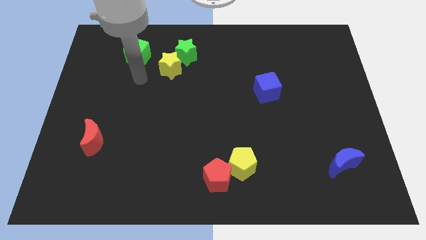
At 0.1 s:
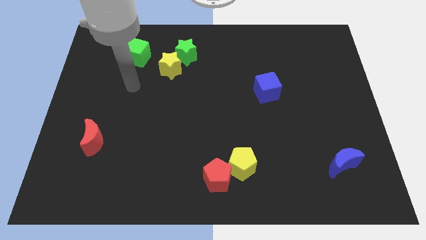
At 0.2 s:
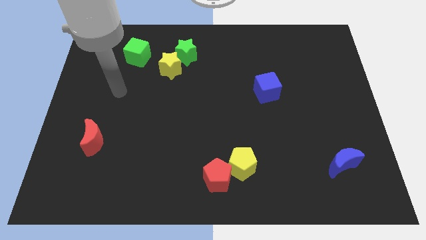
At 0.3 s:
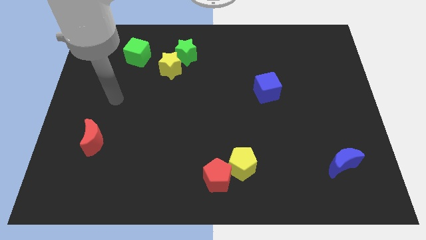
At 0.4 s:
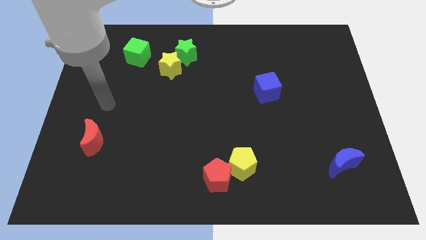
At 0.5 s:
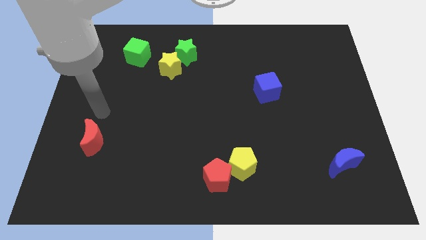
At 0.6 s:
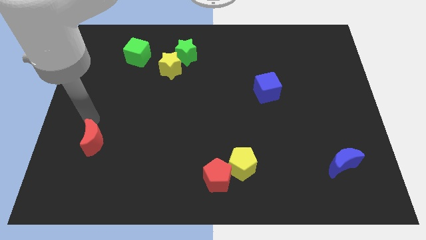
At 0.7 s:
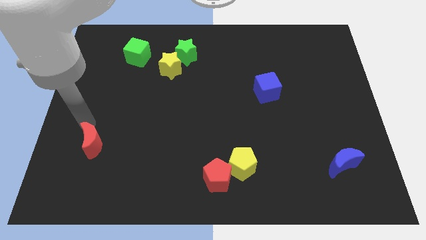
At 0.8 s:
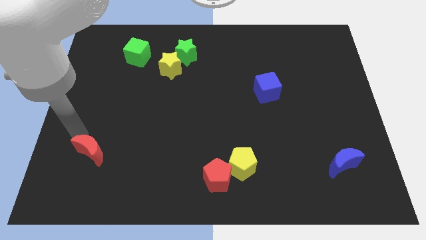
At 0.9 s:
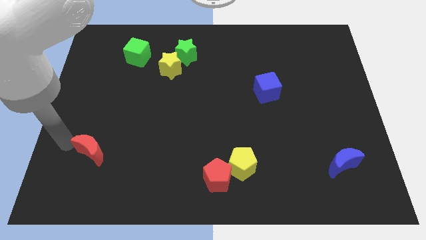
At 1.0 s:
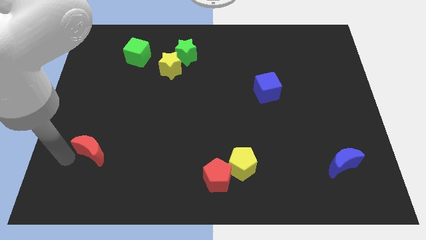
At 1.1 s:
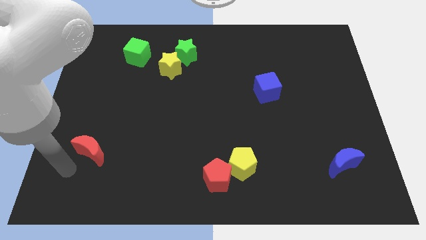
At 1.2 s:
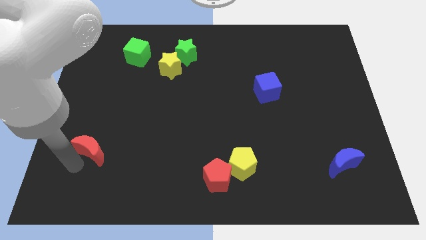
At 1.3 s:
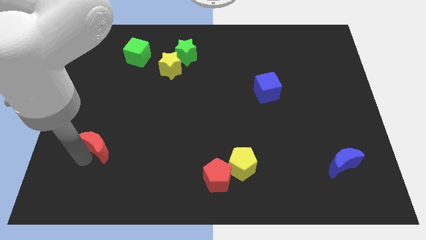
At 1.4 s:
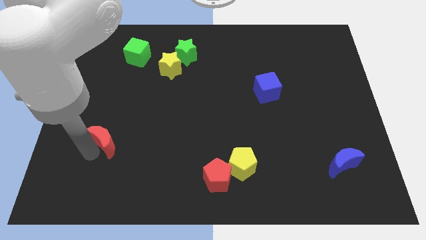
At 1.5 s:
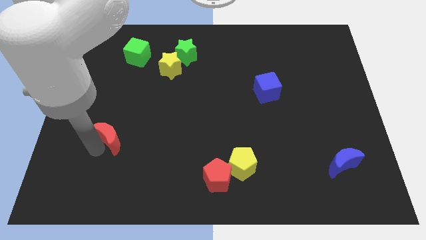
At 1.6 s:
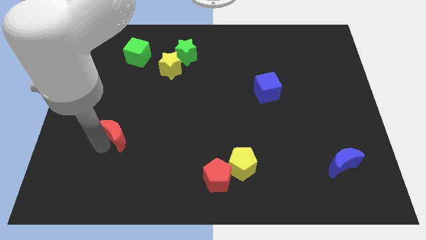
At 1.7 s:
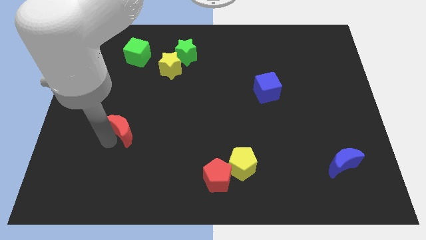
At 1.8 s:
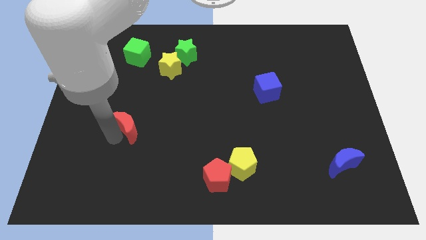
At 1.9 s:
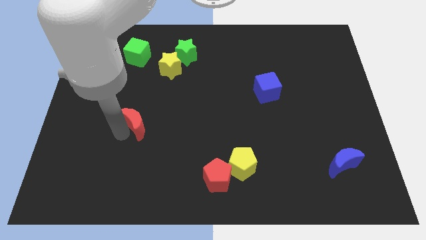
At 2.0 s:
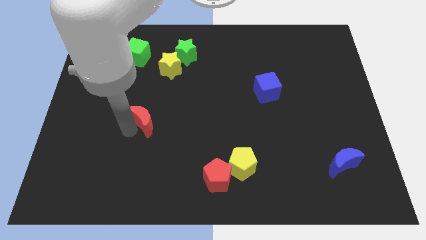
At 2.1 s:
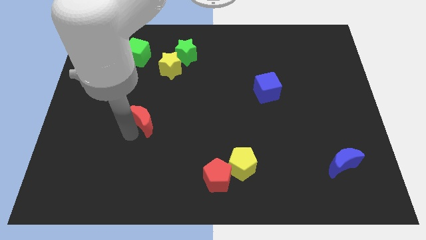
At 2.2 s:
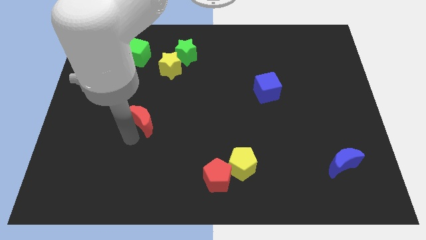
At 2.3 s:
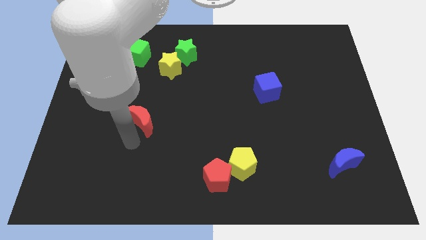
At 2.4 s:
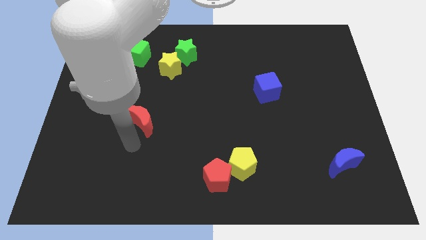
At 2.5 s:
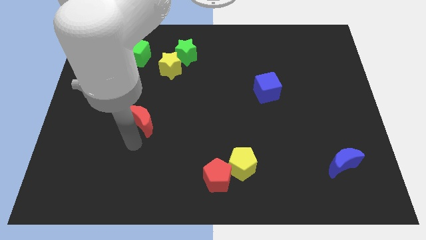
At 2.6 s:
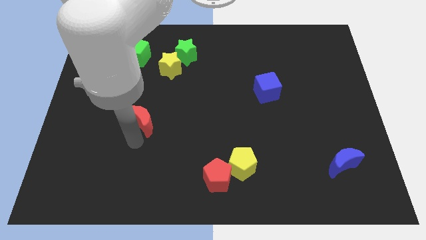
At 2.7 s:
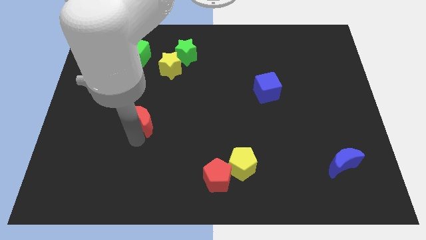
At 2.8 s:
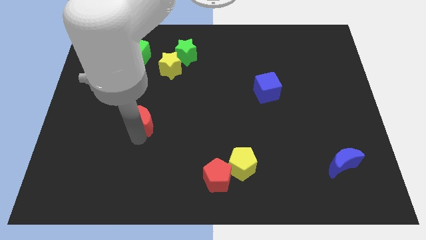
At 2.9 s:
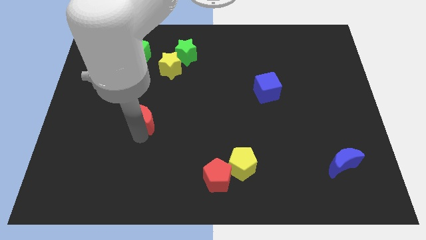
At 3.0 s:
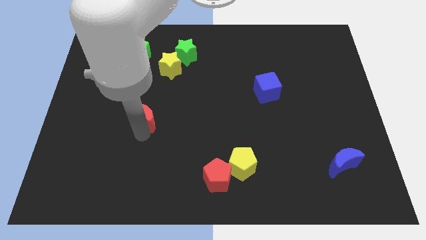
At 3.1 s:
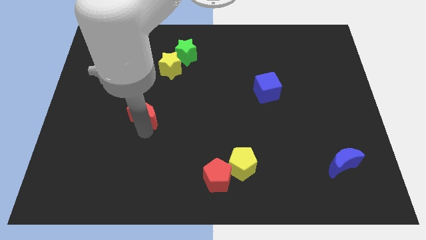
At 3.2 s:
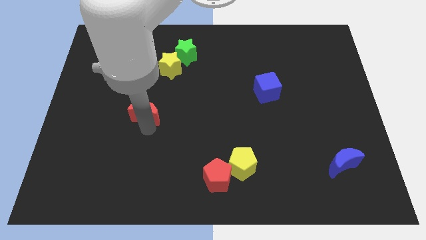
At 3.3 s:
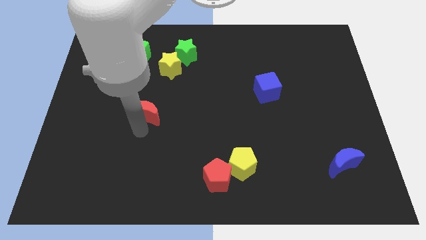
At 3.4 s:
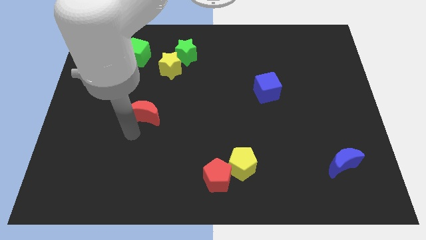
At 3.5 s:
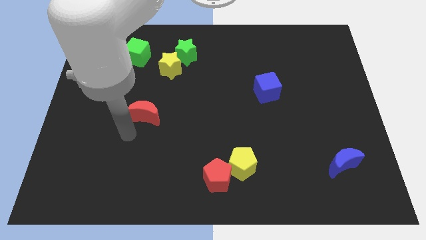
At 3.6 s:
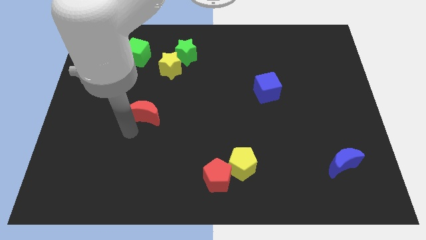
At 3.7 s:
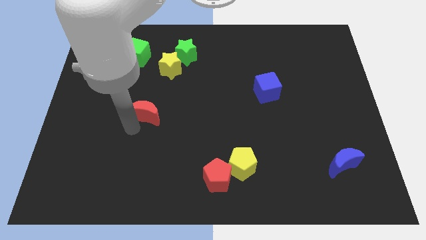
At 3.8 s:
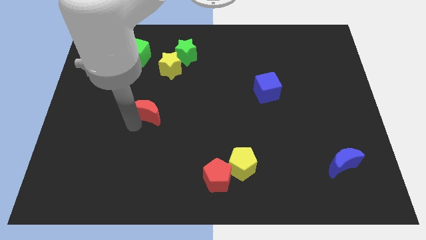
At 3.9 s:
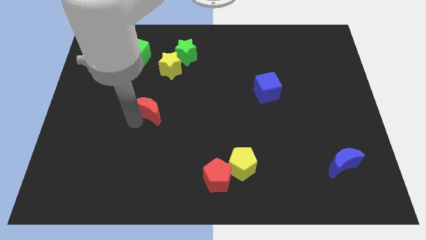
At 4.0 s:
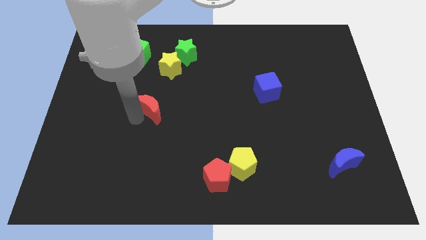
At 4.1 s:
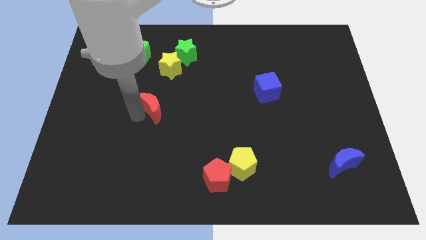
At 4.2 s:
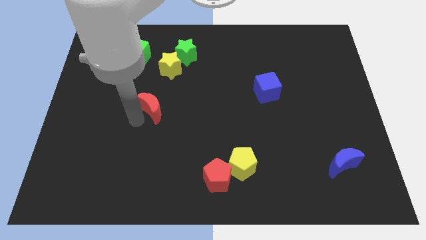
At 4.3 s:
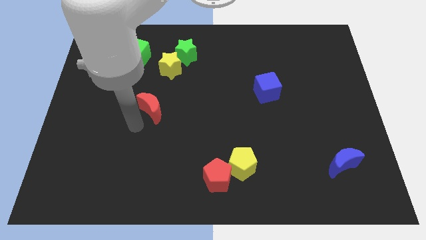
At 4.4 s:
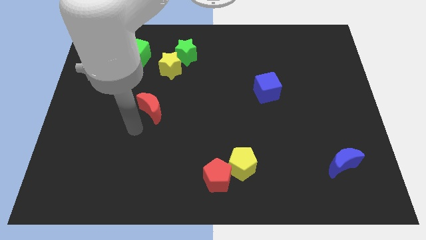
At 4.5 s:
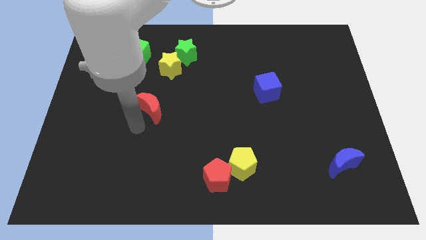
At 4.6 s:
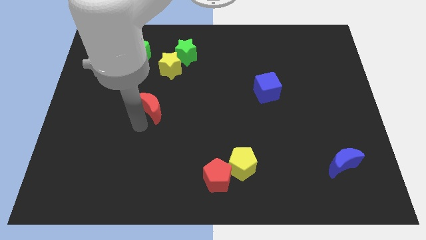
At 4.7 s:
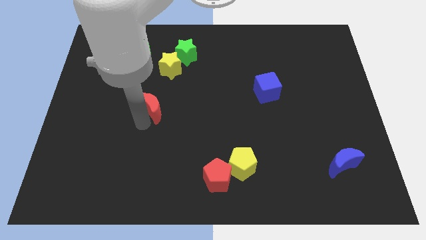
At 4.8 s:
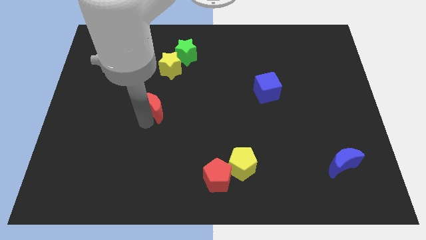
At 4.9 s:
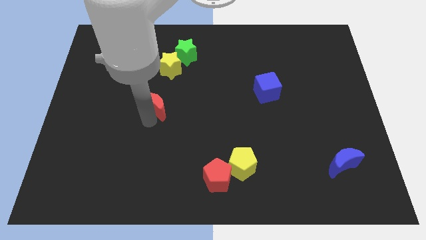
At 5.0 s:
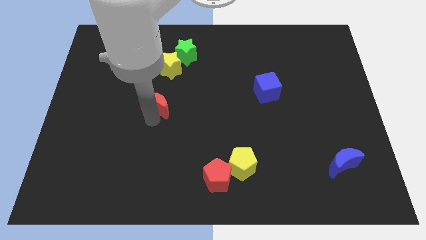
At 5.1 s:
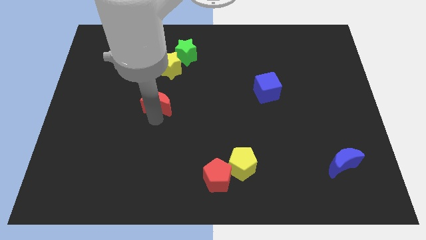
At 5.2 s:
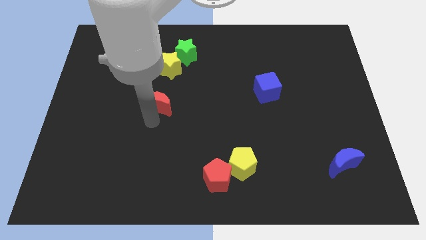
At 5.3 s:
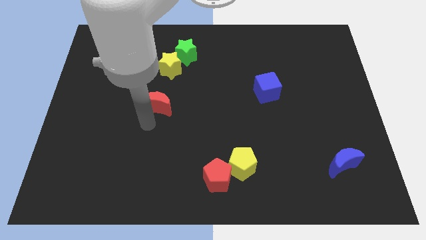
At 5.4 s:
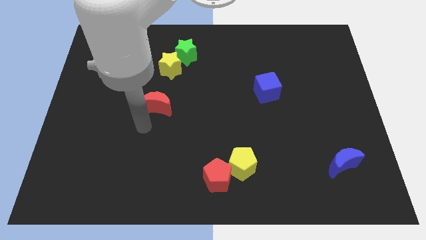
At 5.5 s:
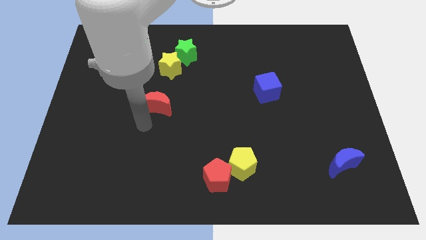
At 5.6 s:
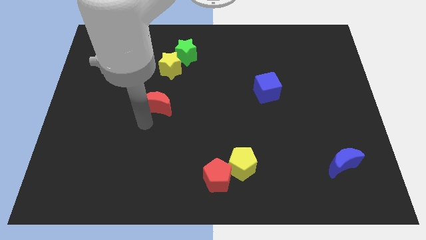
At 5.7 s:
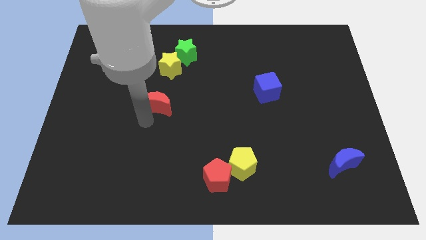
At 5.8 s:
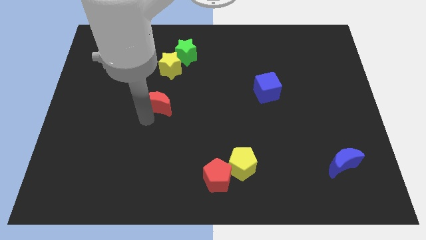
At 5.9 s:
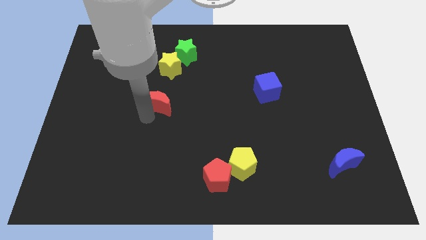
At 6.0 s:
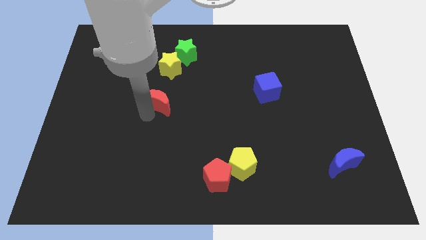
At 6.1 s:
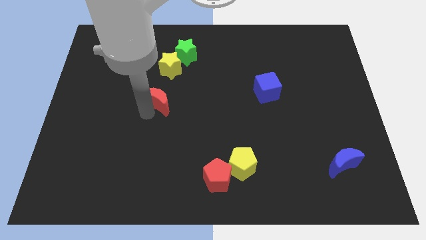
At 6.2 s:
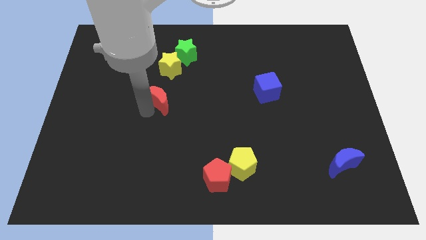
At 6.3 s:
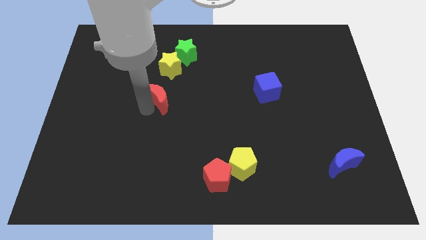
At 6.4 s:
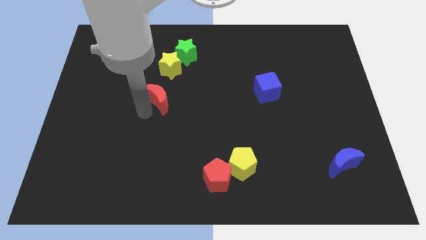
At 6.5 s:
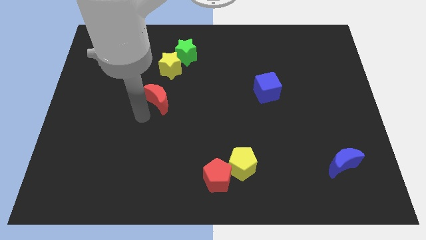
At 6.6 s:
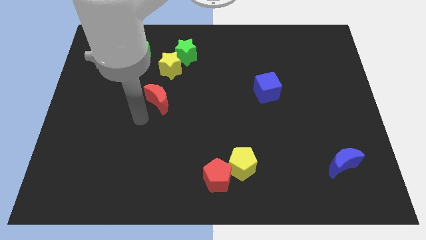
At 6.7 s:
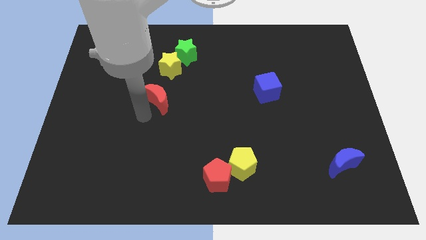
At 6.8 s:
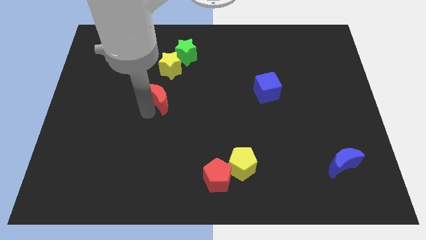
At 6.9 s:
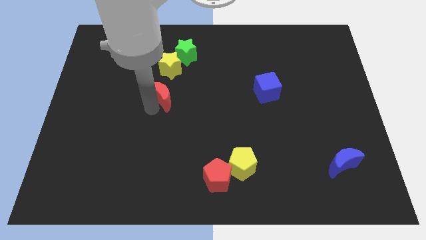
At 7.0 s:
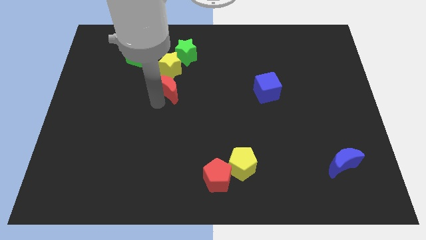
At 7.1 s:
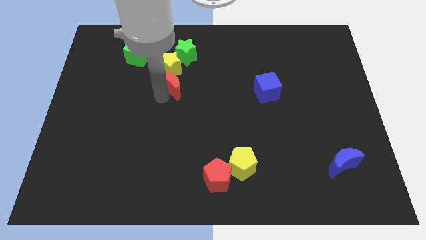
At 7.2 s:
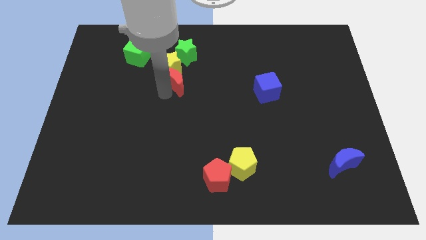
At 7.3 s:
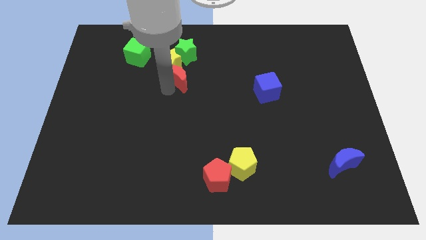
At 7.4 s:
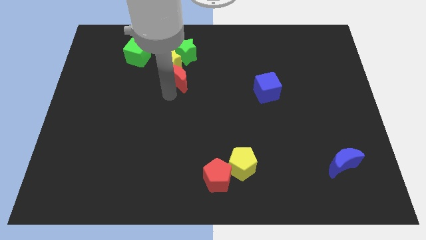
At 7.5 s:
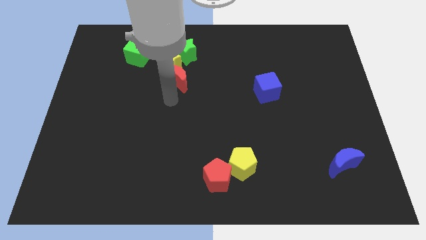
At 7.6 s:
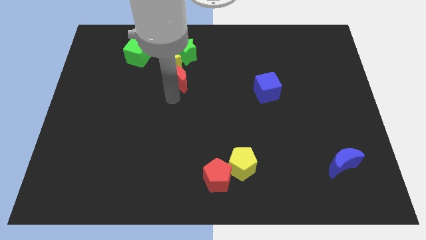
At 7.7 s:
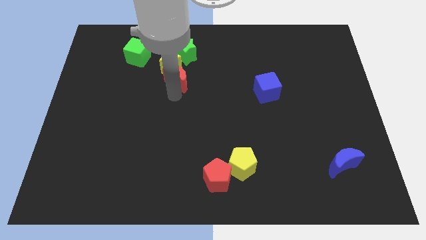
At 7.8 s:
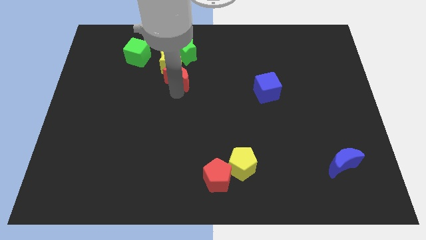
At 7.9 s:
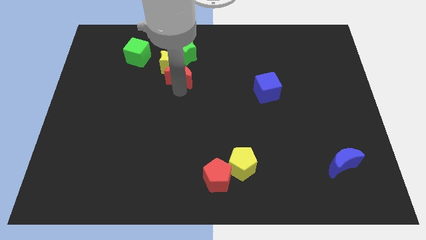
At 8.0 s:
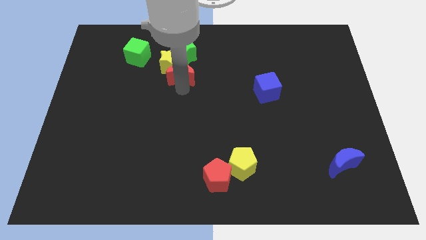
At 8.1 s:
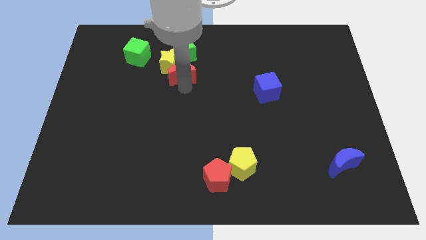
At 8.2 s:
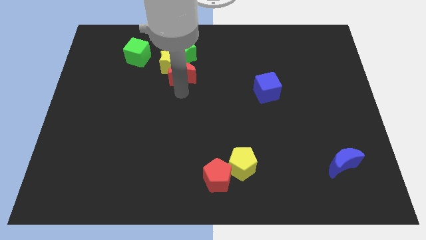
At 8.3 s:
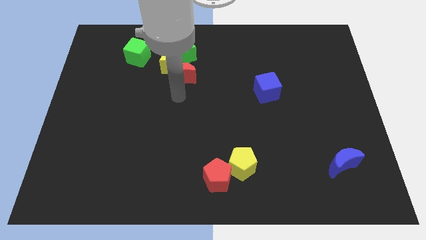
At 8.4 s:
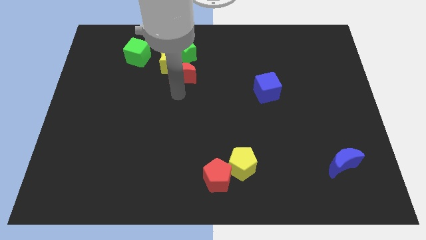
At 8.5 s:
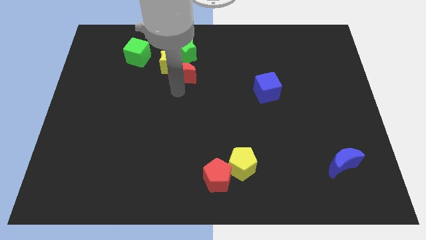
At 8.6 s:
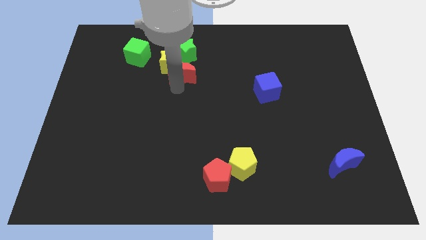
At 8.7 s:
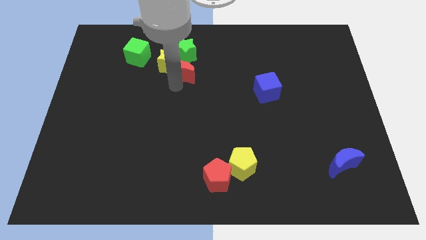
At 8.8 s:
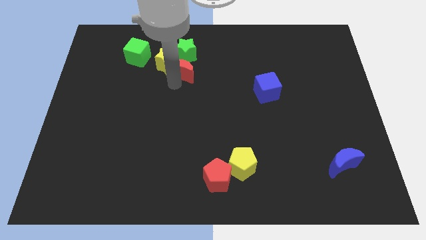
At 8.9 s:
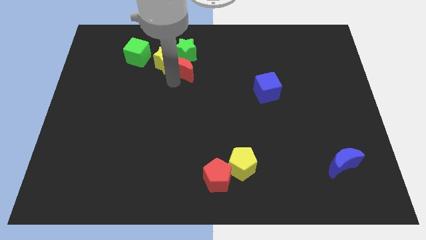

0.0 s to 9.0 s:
move the red moon towards the green star
